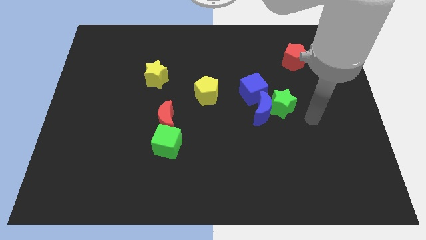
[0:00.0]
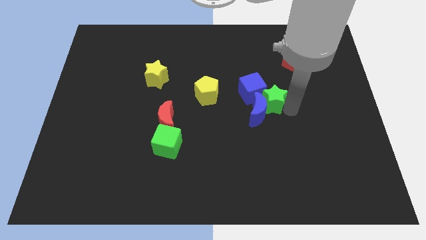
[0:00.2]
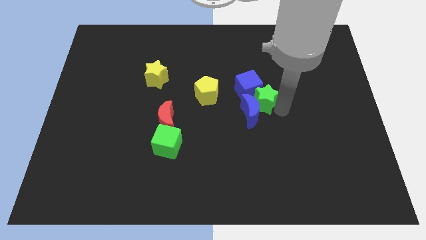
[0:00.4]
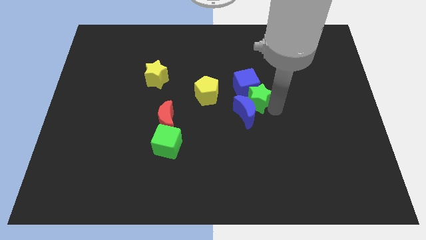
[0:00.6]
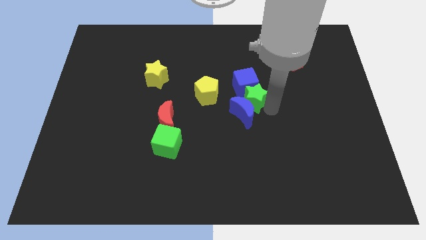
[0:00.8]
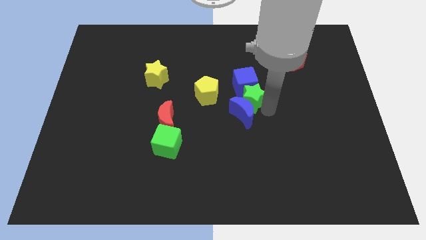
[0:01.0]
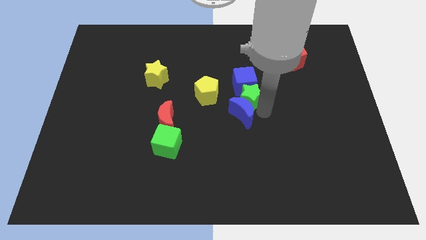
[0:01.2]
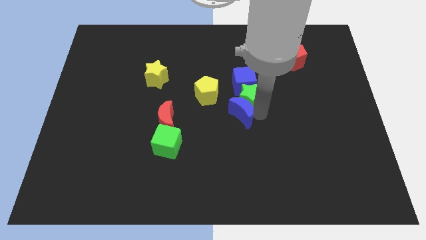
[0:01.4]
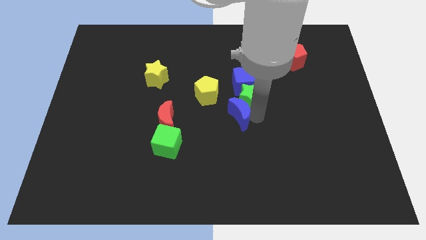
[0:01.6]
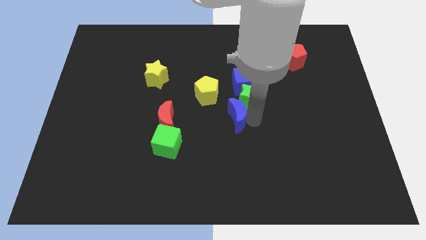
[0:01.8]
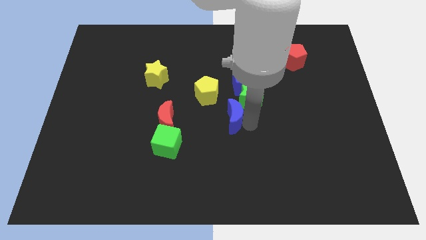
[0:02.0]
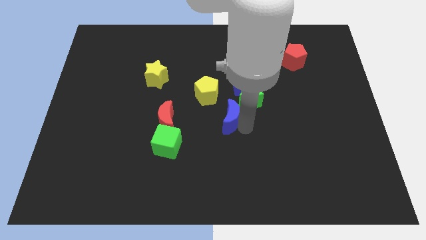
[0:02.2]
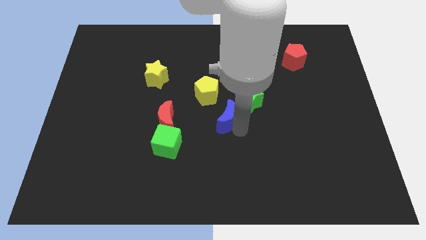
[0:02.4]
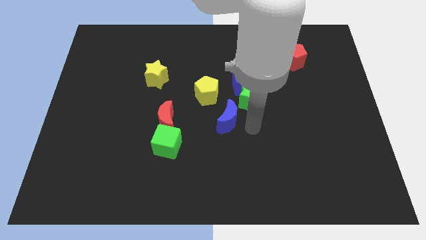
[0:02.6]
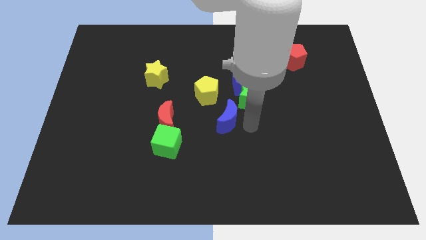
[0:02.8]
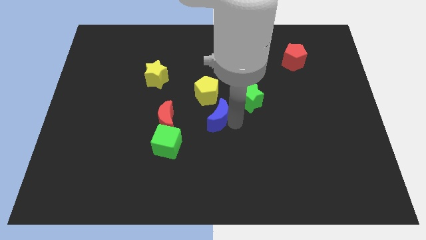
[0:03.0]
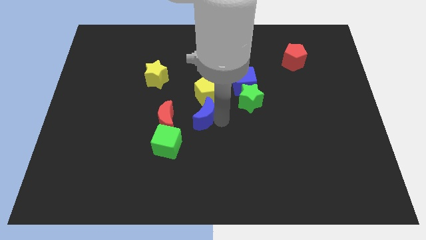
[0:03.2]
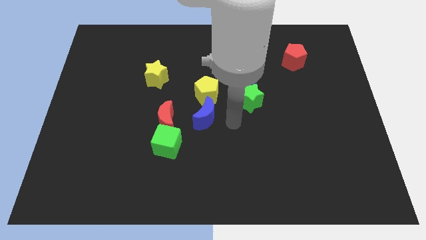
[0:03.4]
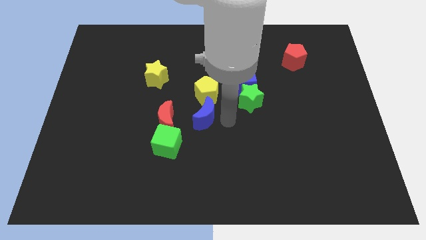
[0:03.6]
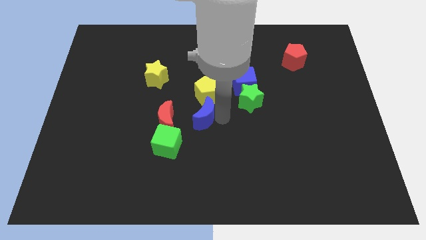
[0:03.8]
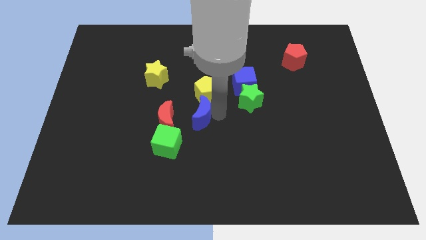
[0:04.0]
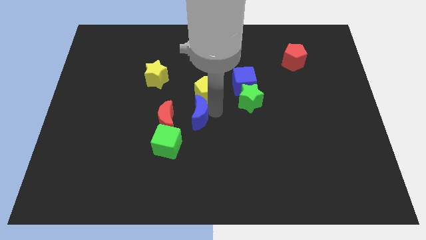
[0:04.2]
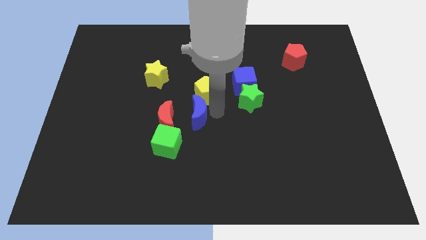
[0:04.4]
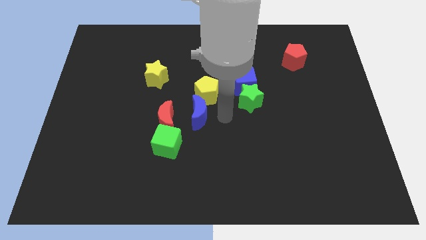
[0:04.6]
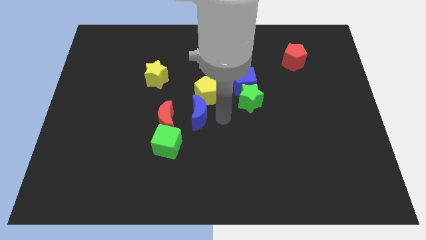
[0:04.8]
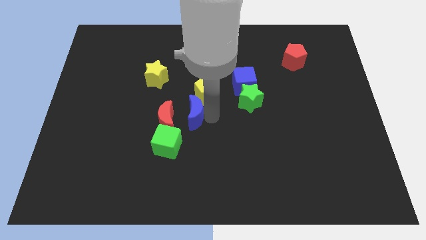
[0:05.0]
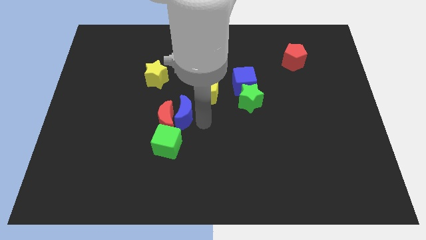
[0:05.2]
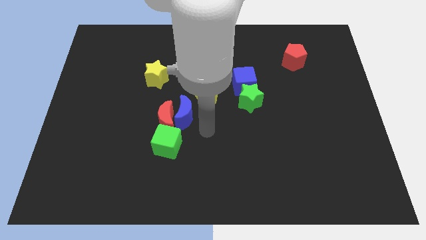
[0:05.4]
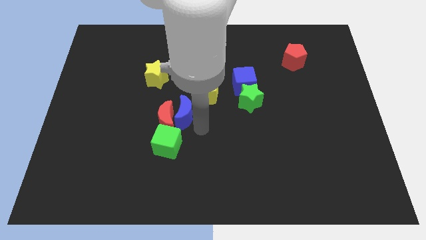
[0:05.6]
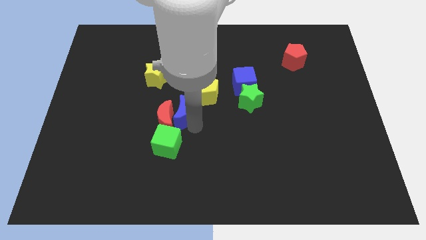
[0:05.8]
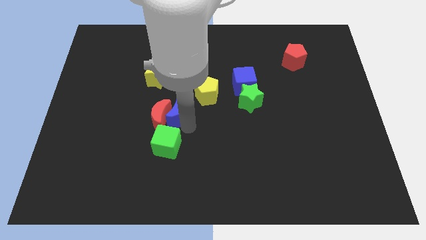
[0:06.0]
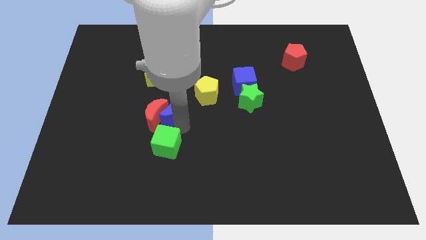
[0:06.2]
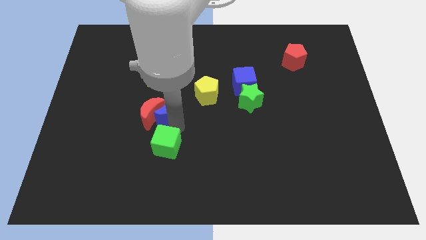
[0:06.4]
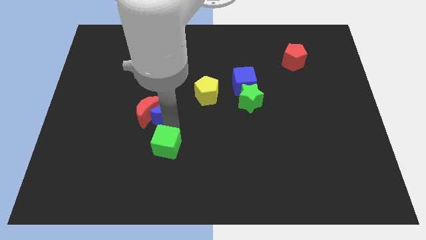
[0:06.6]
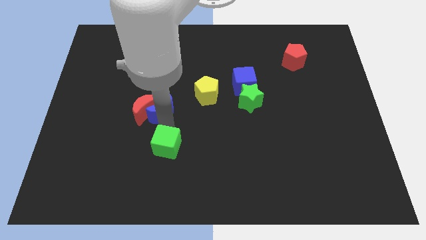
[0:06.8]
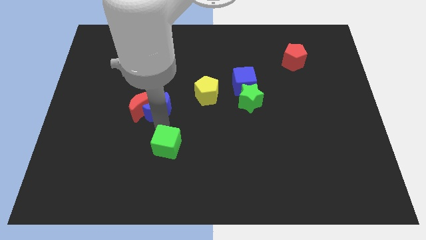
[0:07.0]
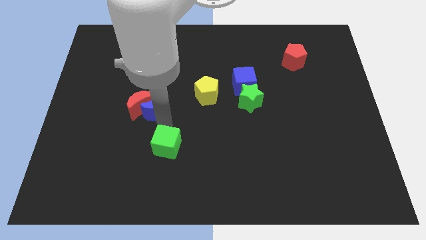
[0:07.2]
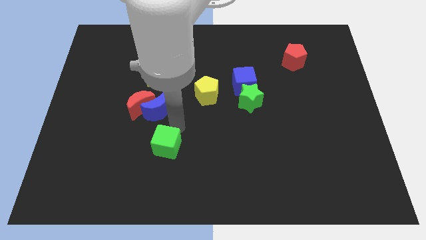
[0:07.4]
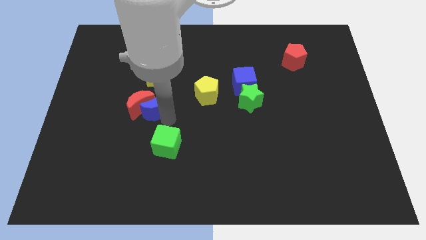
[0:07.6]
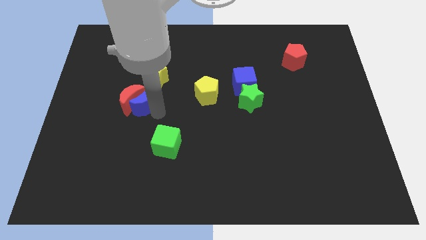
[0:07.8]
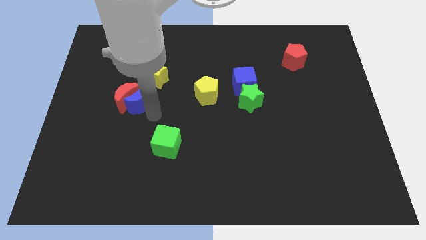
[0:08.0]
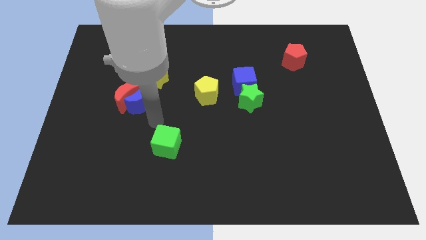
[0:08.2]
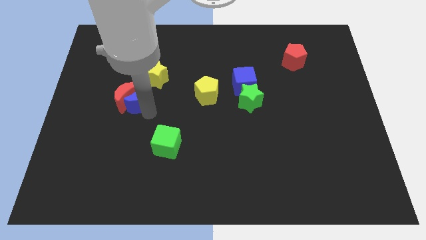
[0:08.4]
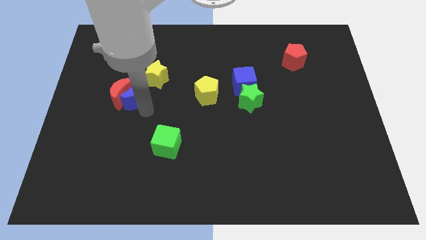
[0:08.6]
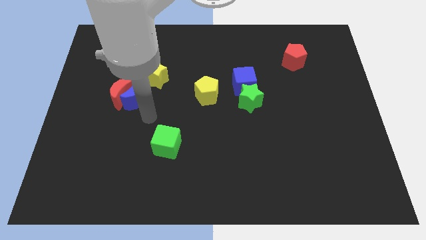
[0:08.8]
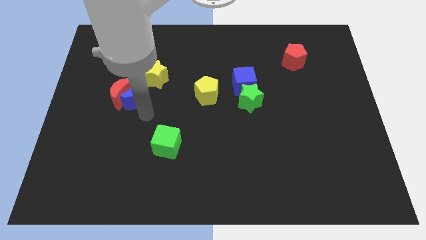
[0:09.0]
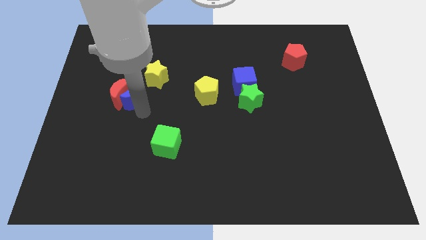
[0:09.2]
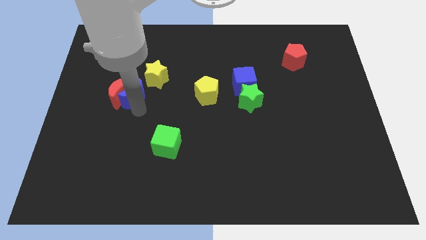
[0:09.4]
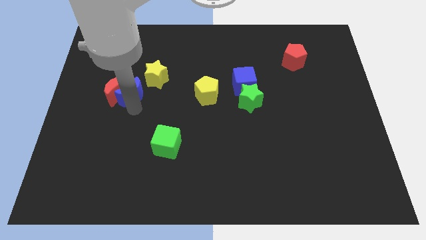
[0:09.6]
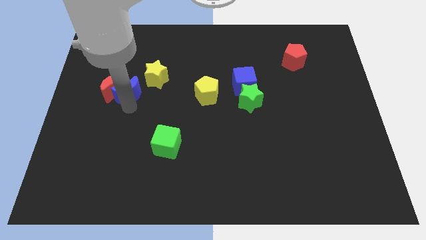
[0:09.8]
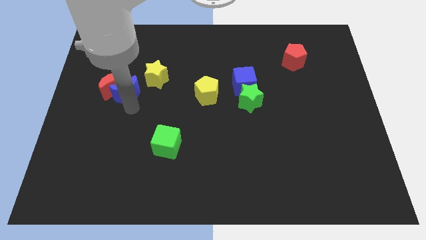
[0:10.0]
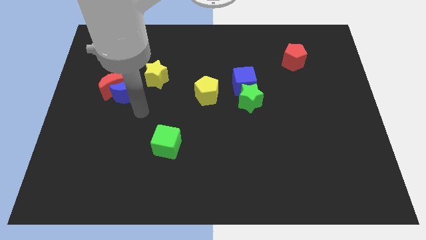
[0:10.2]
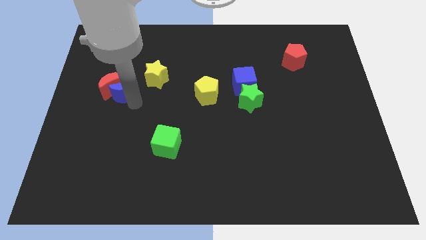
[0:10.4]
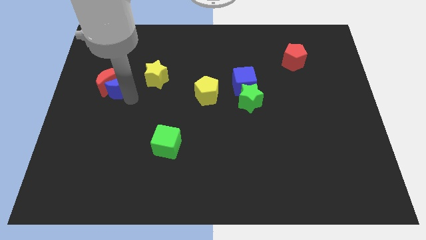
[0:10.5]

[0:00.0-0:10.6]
slide the blue moon to the left of the yellow star

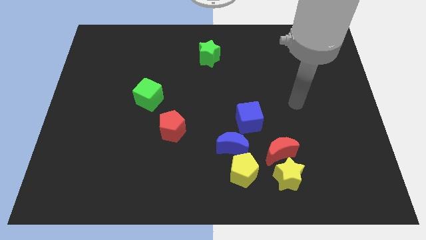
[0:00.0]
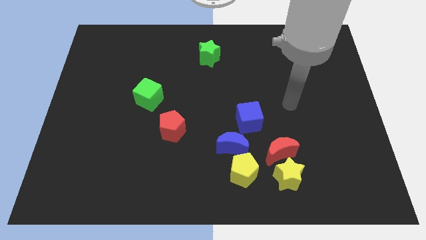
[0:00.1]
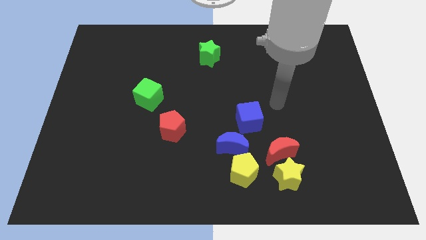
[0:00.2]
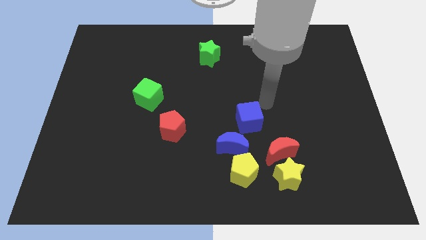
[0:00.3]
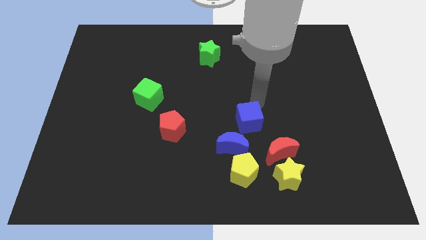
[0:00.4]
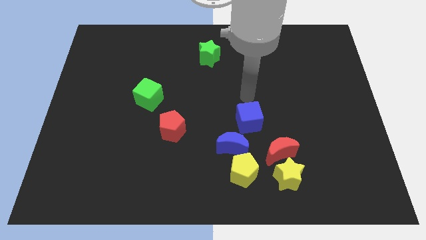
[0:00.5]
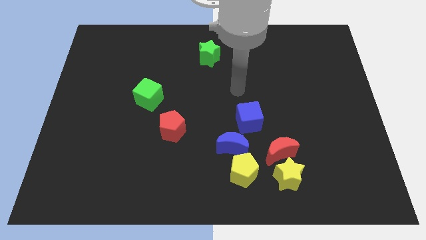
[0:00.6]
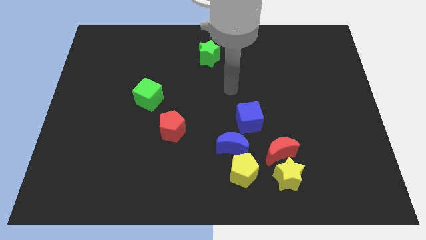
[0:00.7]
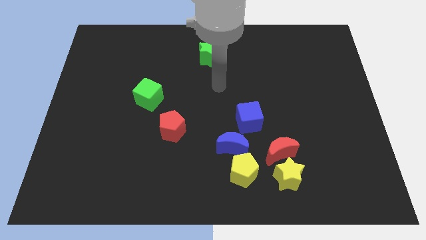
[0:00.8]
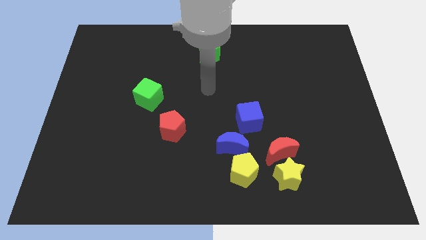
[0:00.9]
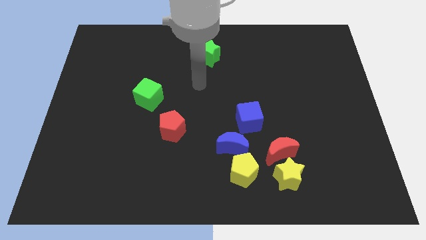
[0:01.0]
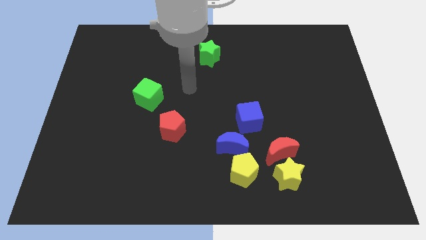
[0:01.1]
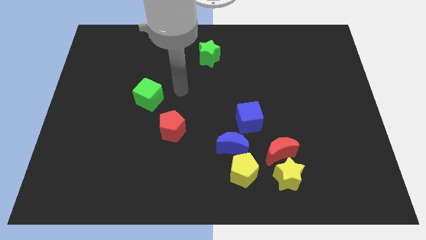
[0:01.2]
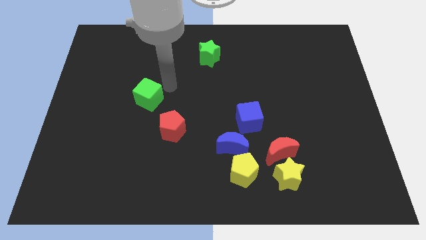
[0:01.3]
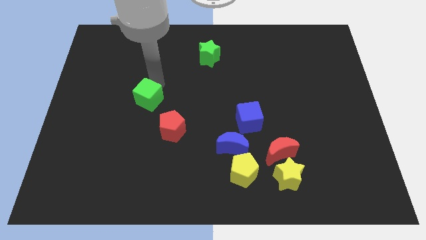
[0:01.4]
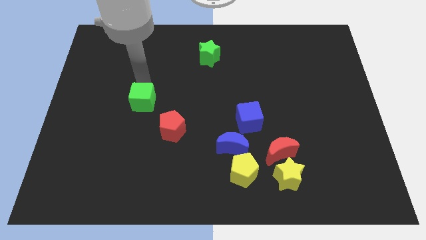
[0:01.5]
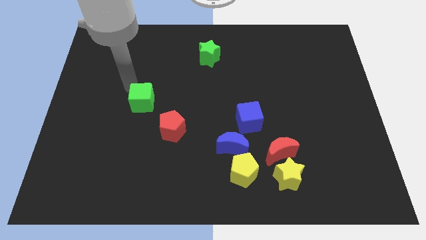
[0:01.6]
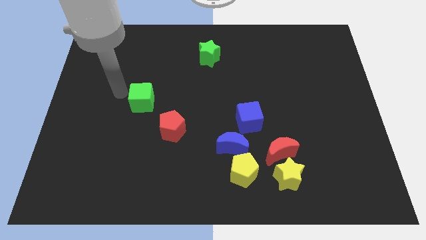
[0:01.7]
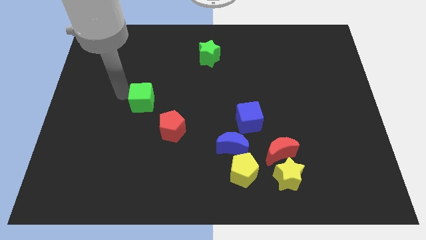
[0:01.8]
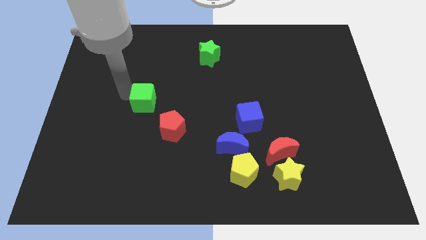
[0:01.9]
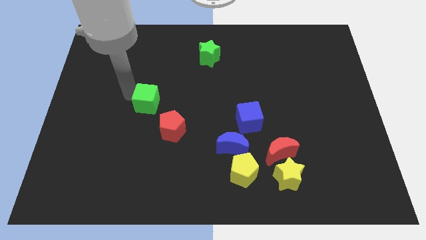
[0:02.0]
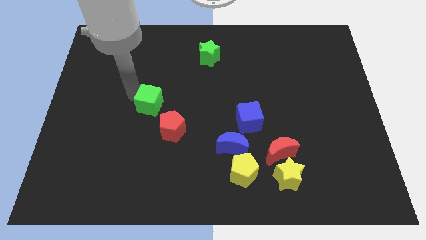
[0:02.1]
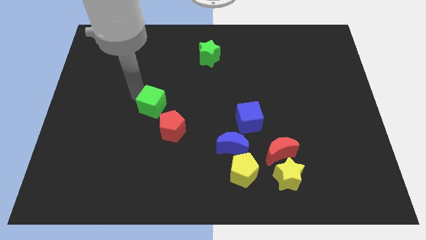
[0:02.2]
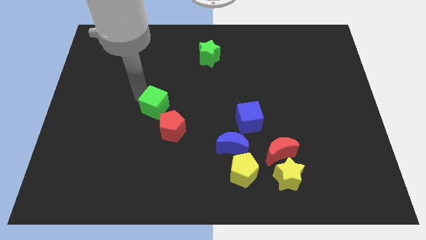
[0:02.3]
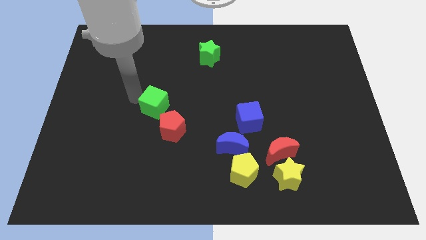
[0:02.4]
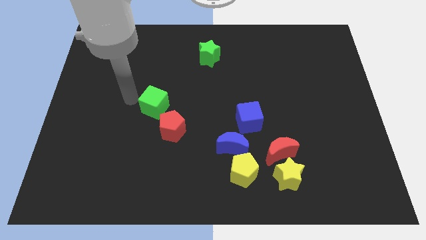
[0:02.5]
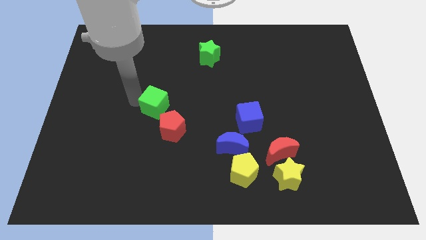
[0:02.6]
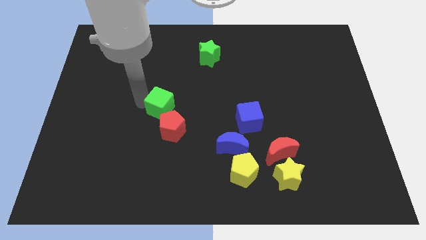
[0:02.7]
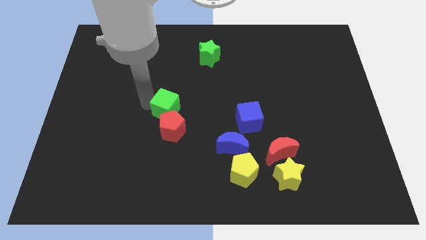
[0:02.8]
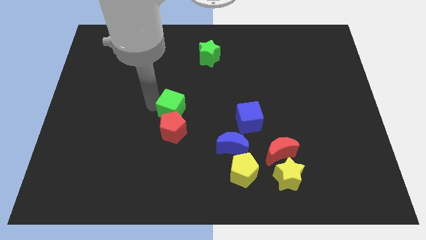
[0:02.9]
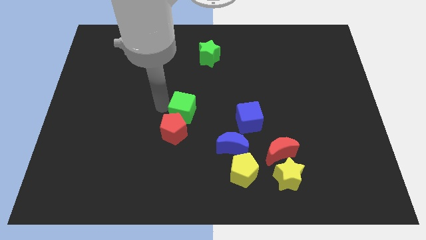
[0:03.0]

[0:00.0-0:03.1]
slide the green cube left of the blue cube
